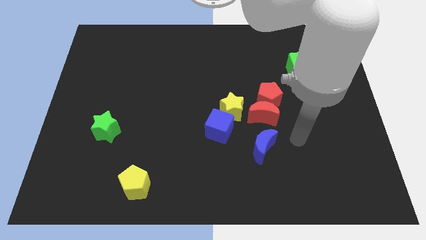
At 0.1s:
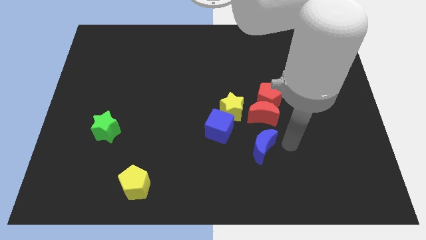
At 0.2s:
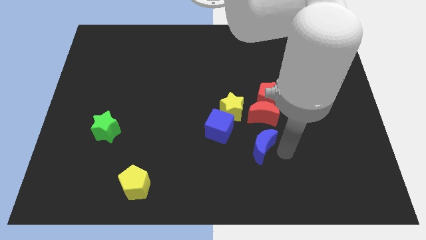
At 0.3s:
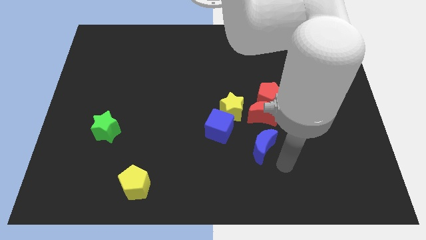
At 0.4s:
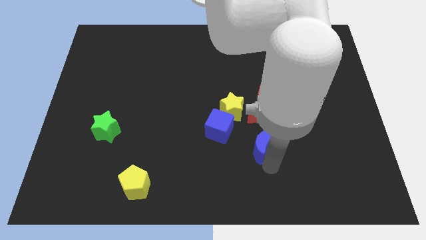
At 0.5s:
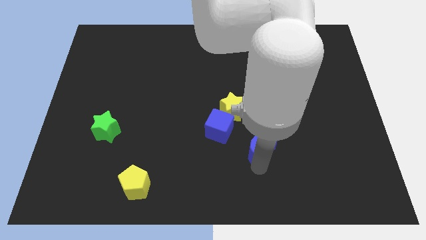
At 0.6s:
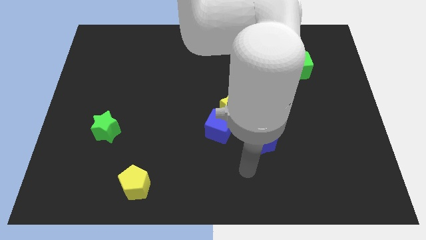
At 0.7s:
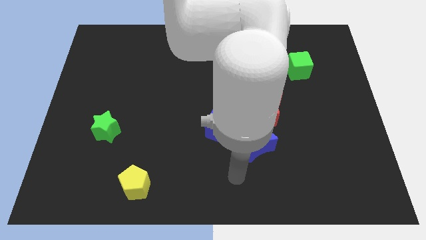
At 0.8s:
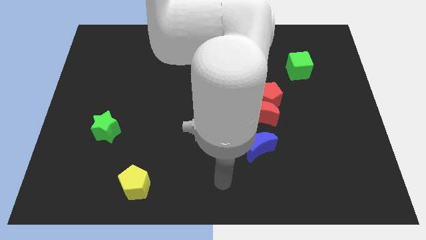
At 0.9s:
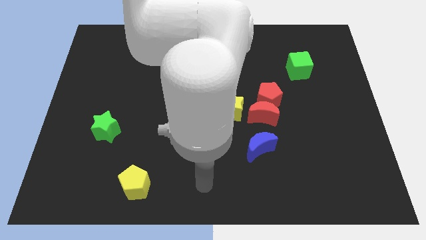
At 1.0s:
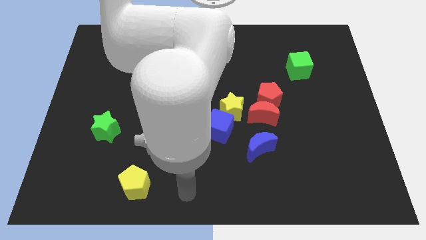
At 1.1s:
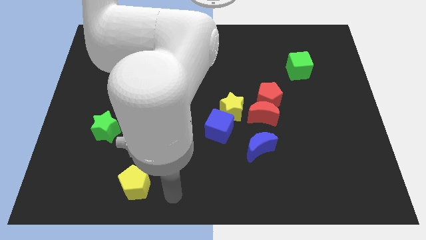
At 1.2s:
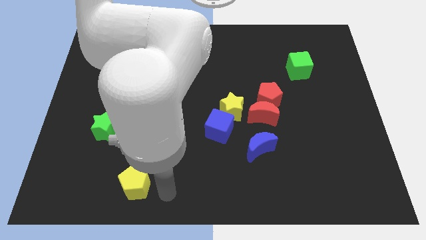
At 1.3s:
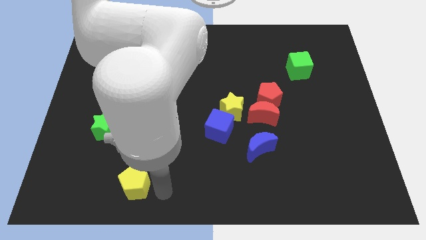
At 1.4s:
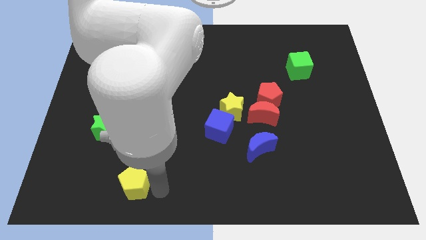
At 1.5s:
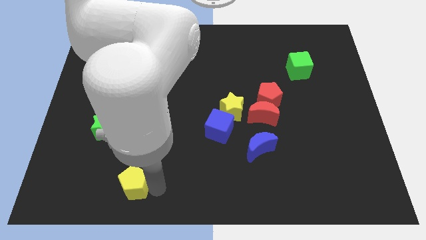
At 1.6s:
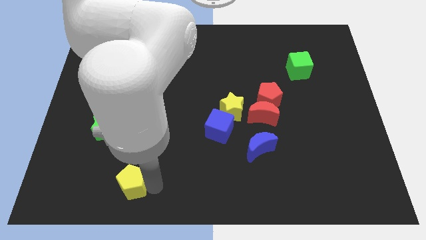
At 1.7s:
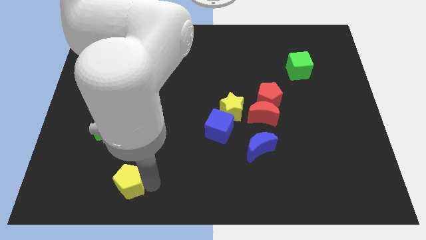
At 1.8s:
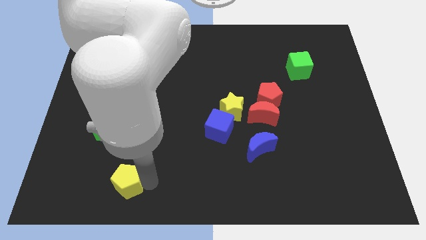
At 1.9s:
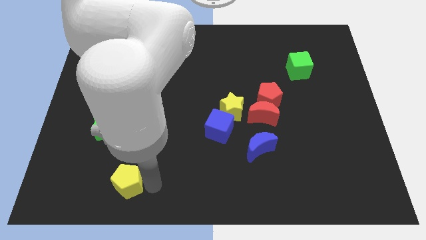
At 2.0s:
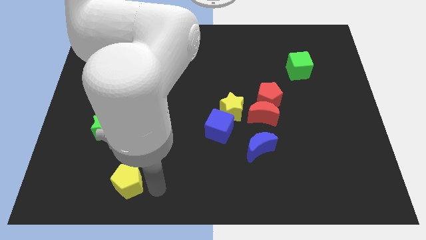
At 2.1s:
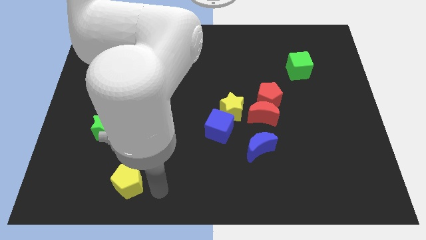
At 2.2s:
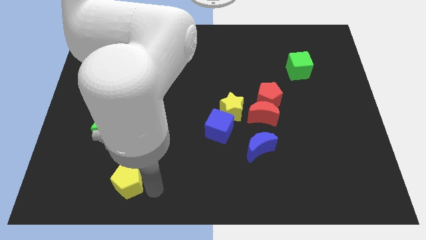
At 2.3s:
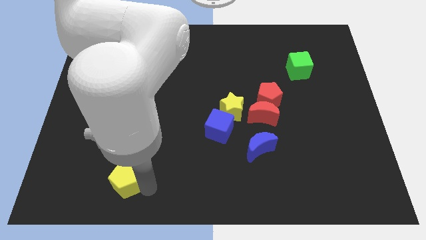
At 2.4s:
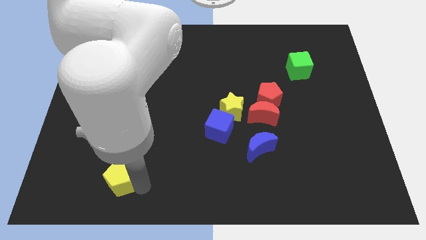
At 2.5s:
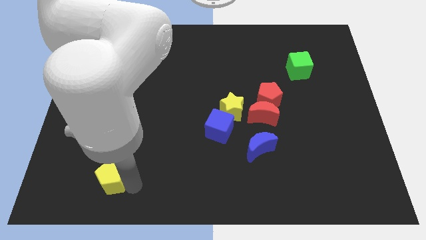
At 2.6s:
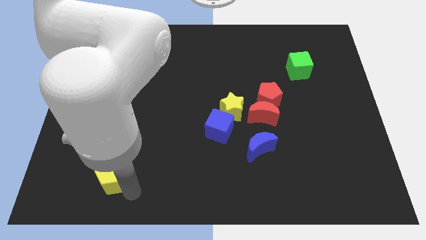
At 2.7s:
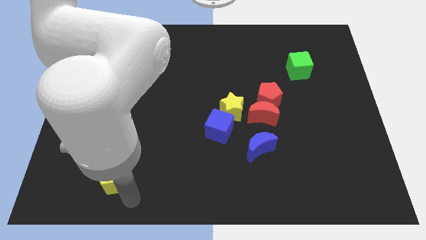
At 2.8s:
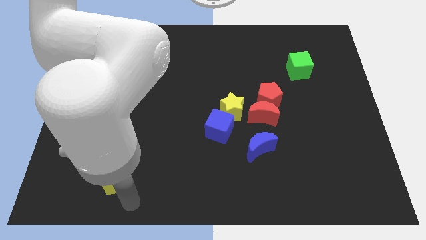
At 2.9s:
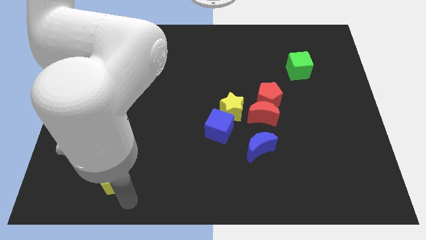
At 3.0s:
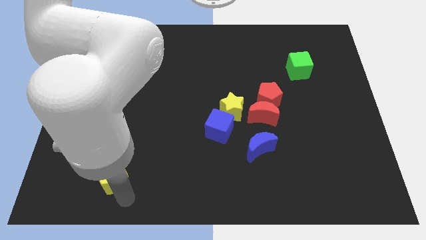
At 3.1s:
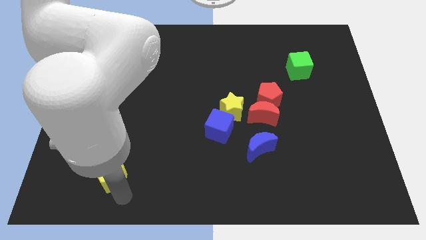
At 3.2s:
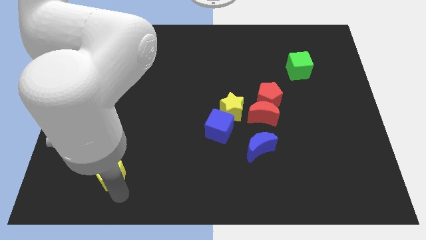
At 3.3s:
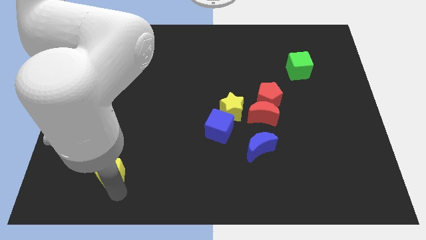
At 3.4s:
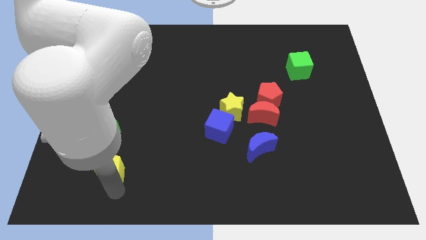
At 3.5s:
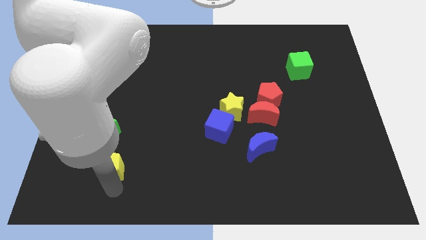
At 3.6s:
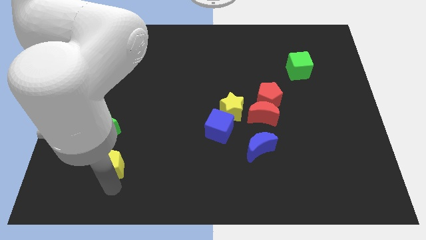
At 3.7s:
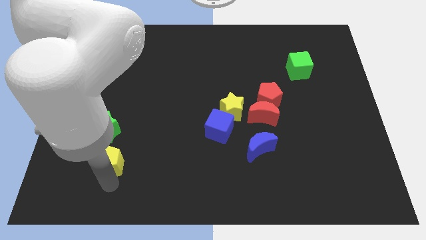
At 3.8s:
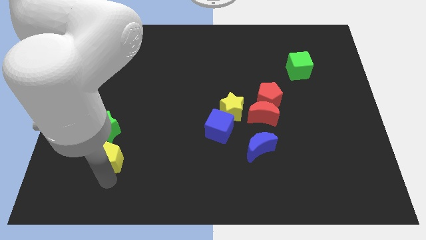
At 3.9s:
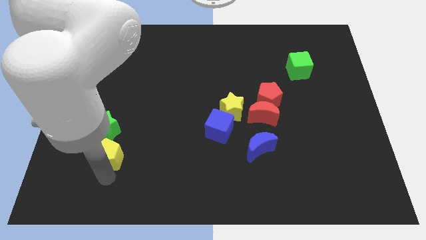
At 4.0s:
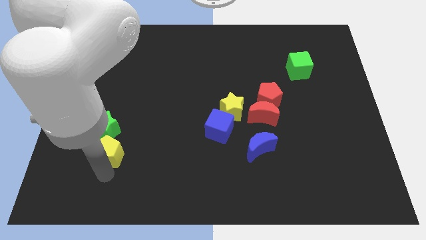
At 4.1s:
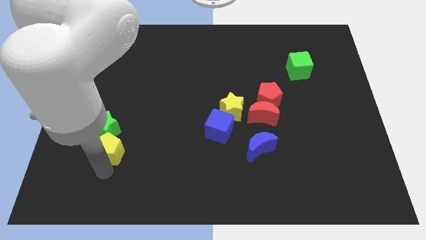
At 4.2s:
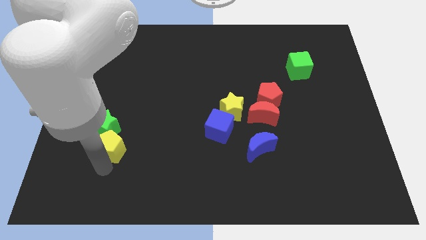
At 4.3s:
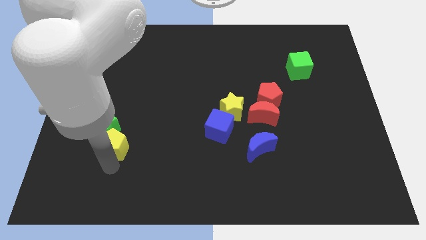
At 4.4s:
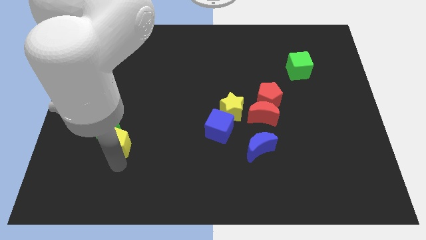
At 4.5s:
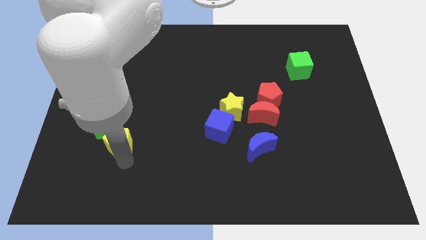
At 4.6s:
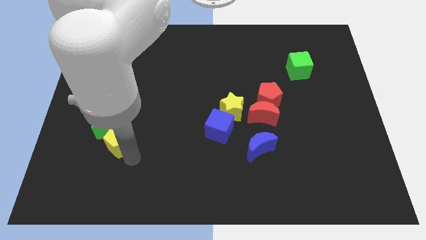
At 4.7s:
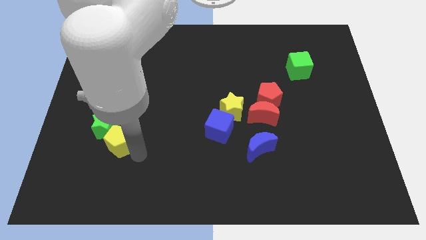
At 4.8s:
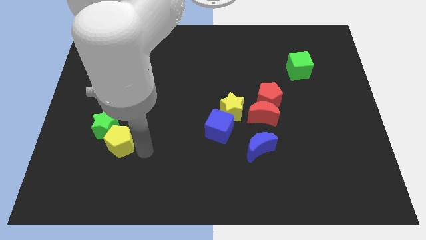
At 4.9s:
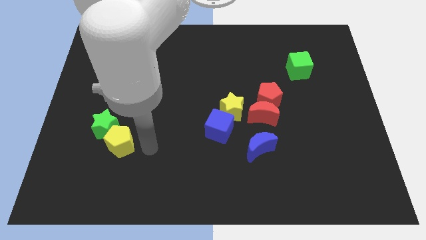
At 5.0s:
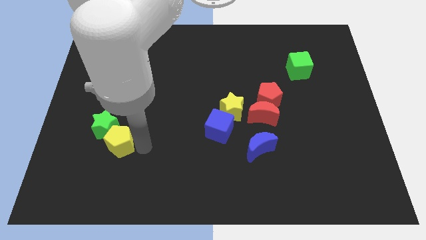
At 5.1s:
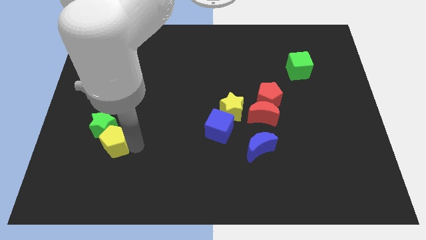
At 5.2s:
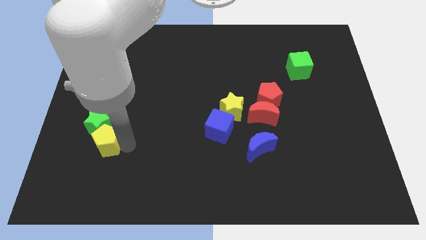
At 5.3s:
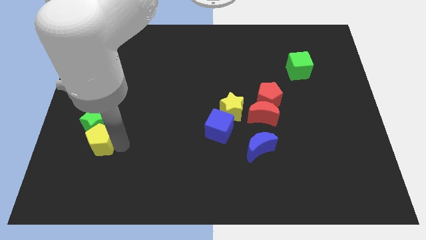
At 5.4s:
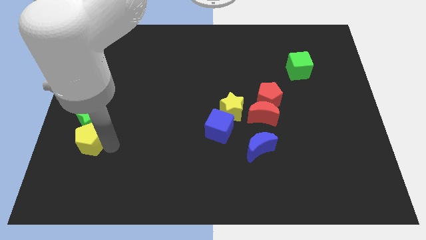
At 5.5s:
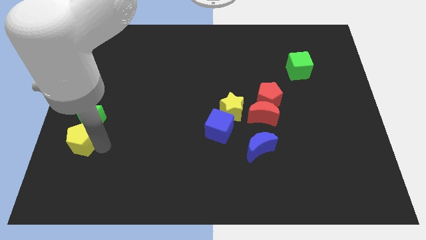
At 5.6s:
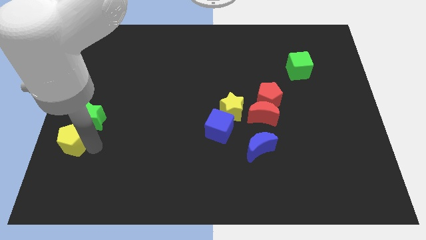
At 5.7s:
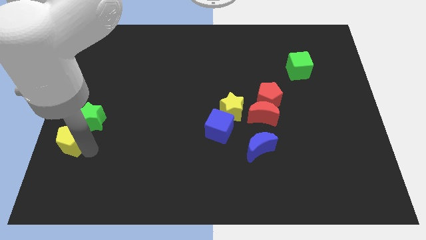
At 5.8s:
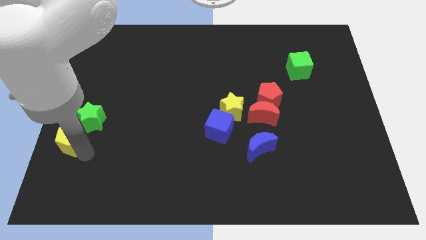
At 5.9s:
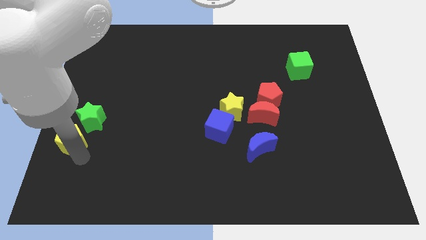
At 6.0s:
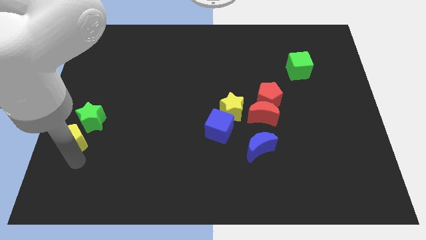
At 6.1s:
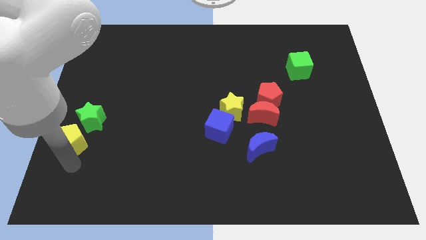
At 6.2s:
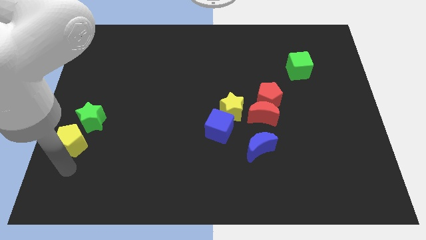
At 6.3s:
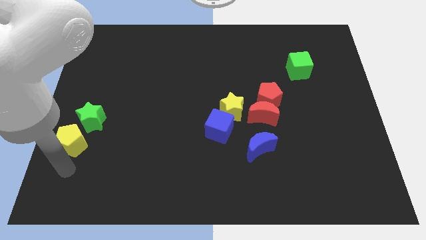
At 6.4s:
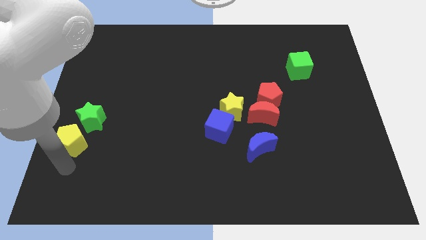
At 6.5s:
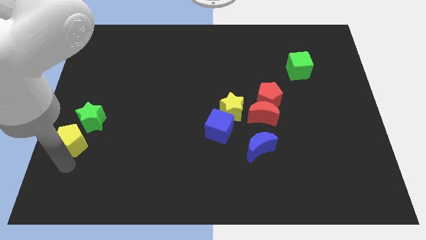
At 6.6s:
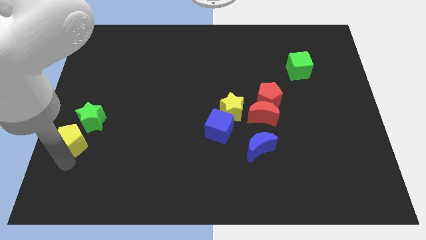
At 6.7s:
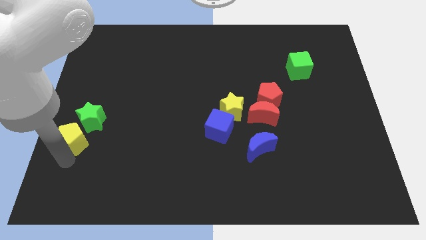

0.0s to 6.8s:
push the yellow pentagon to the left side

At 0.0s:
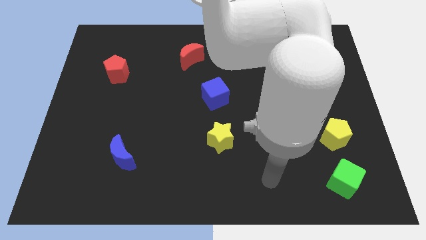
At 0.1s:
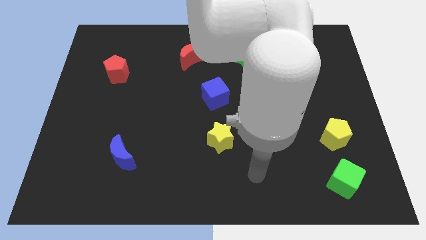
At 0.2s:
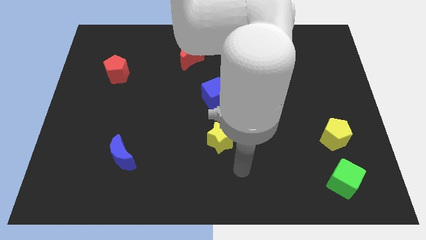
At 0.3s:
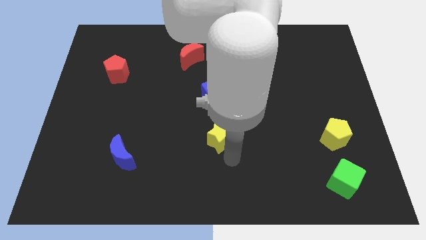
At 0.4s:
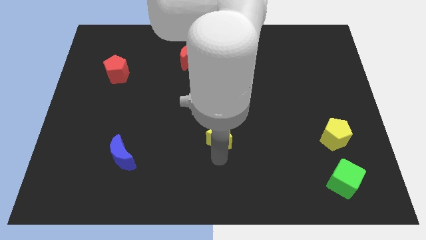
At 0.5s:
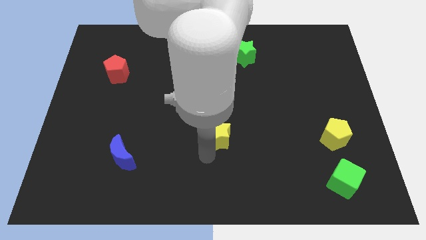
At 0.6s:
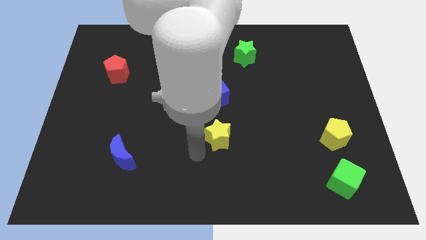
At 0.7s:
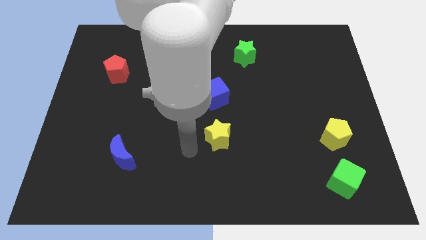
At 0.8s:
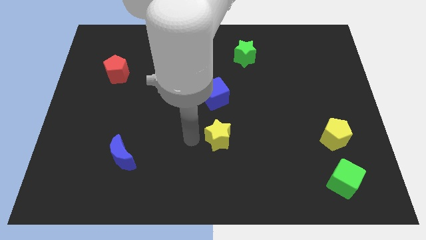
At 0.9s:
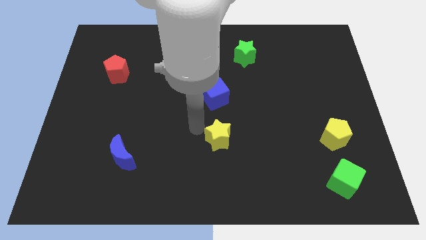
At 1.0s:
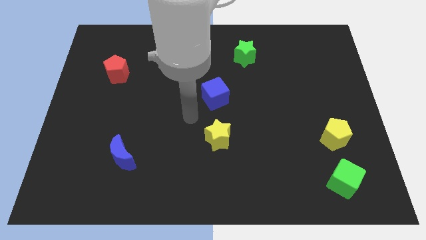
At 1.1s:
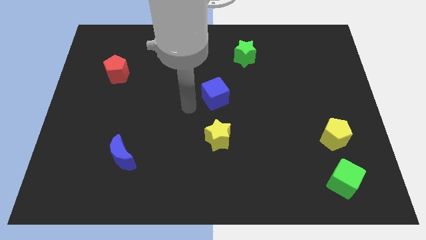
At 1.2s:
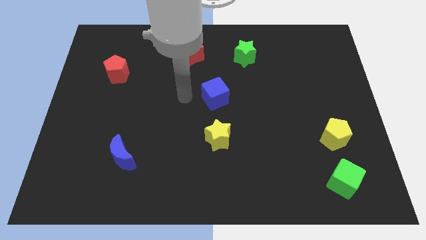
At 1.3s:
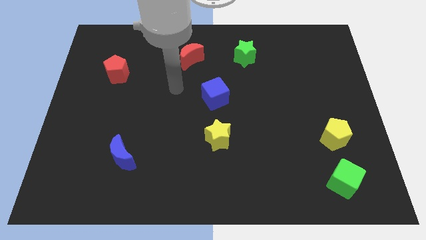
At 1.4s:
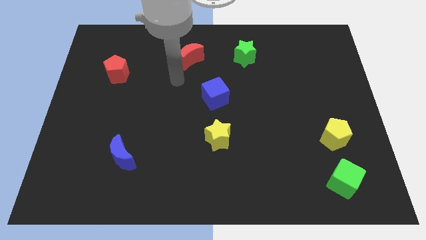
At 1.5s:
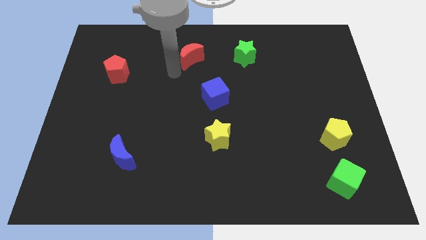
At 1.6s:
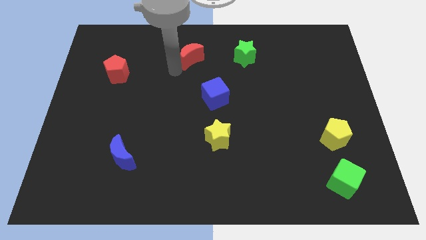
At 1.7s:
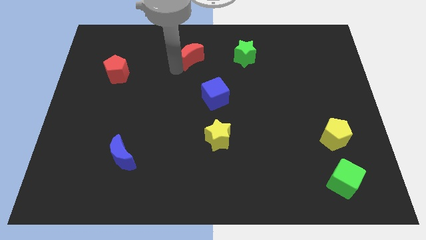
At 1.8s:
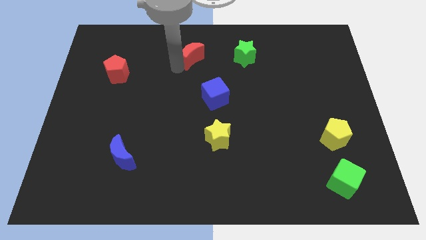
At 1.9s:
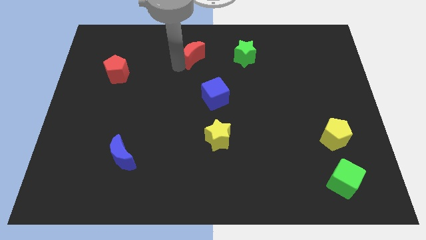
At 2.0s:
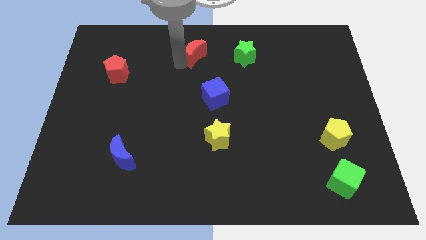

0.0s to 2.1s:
slide the red moon to the top
